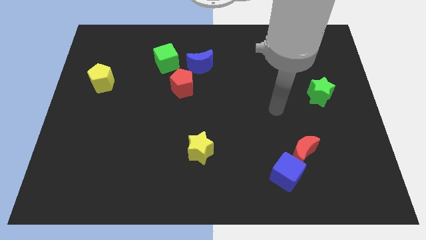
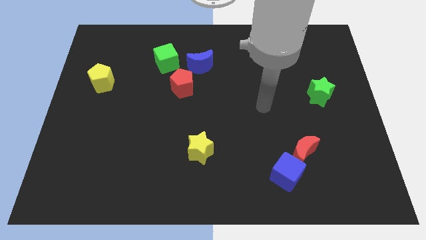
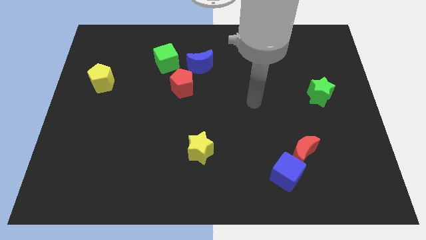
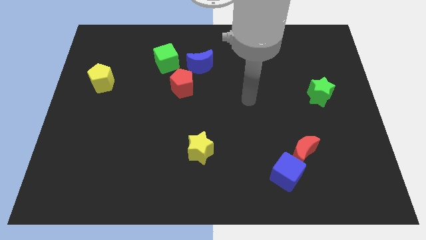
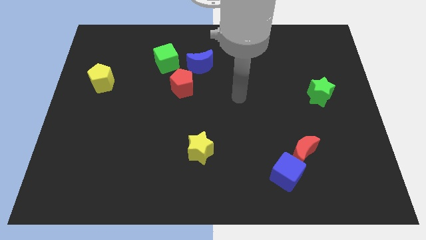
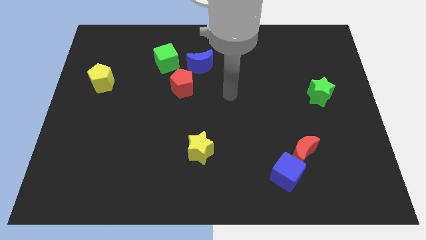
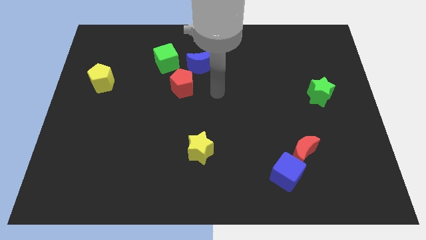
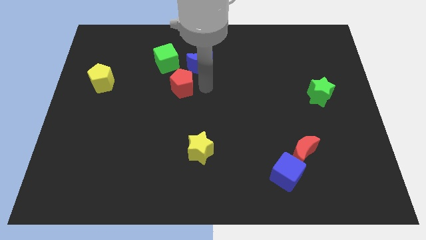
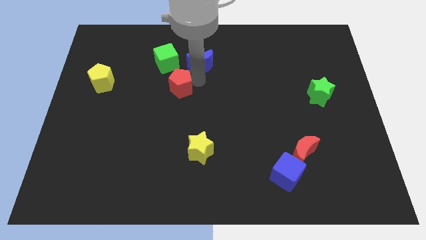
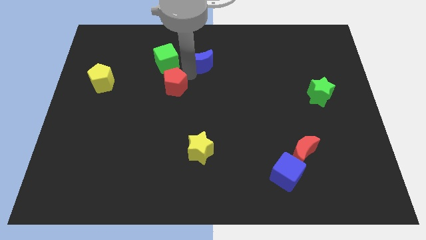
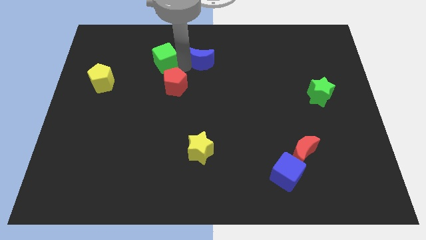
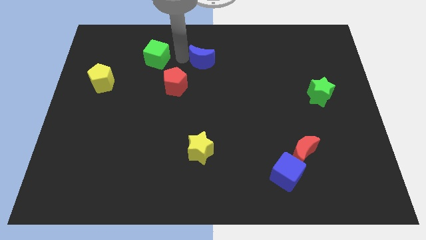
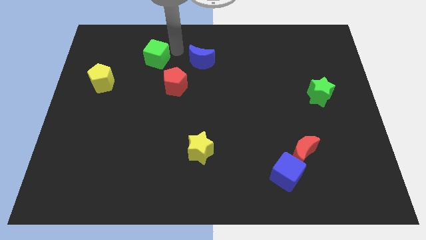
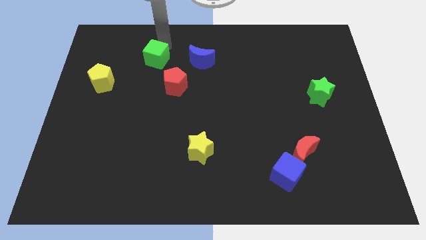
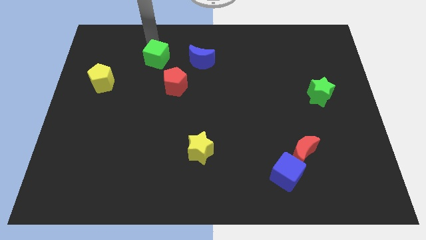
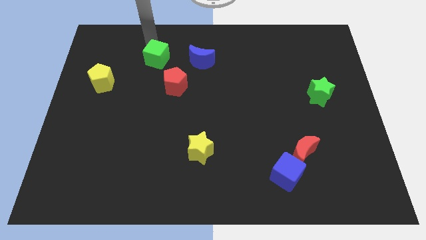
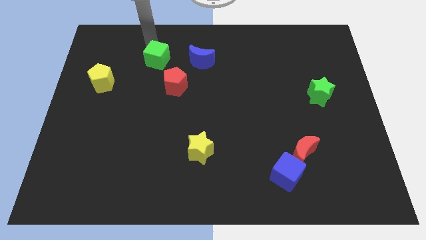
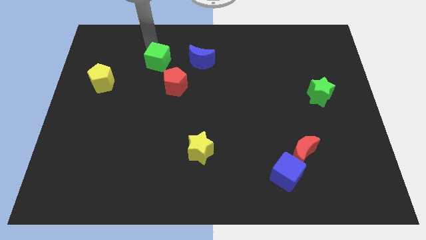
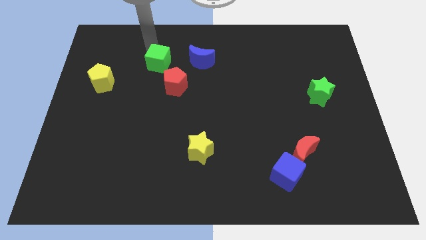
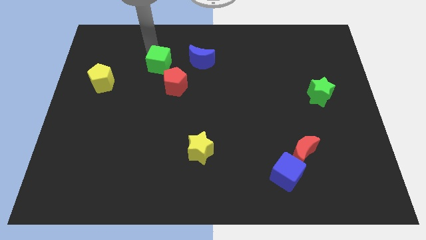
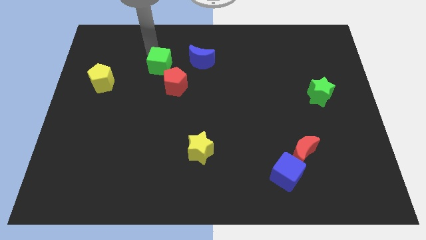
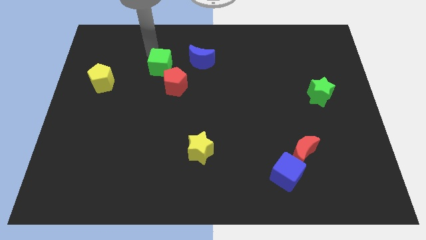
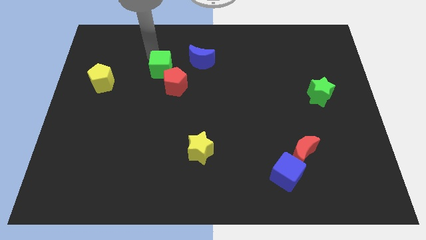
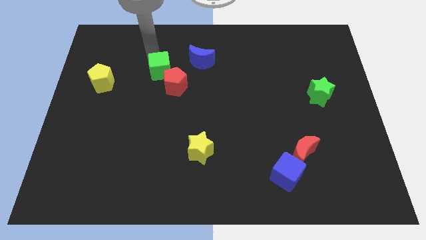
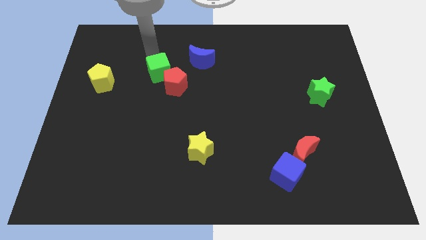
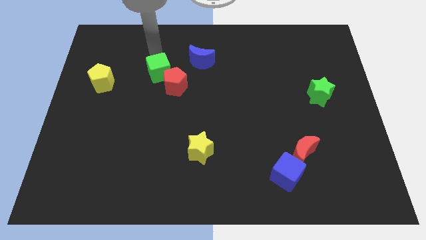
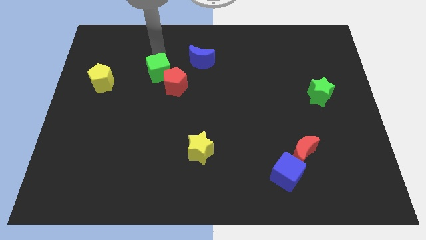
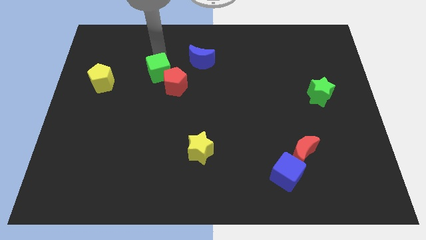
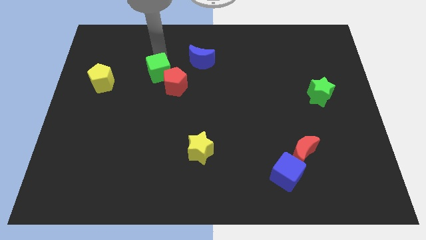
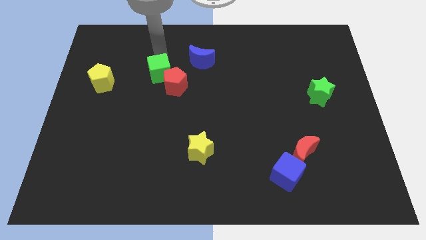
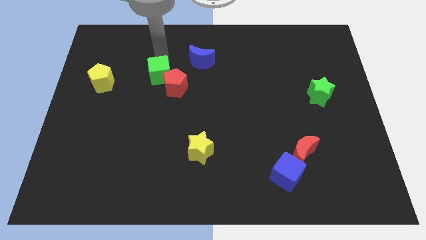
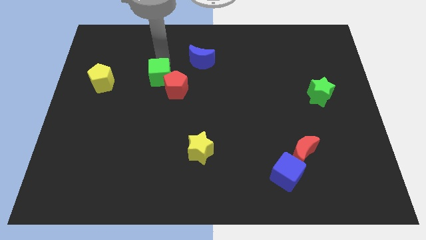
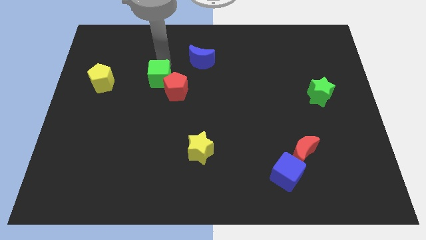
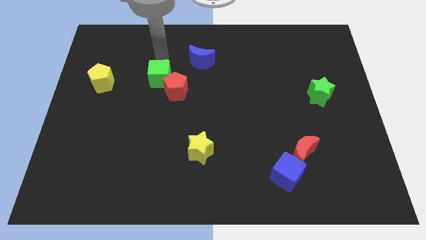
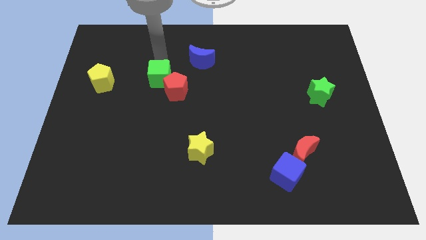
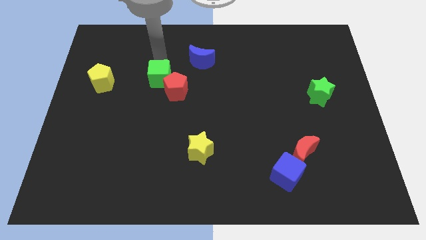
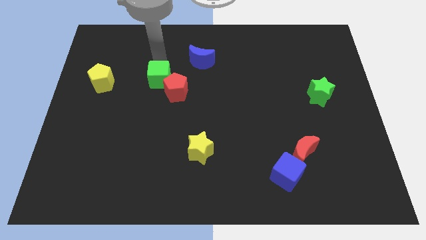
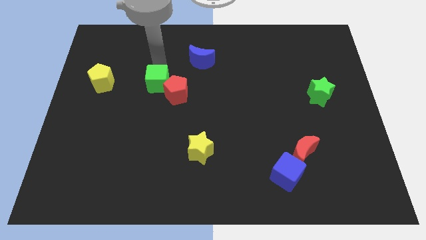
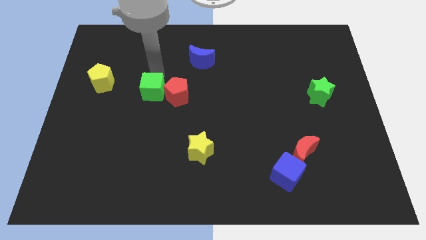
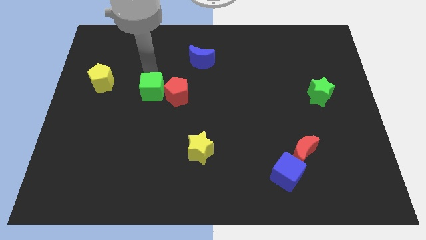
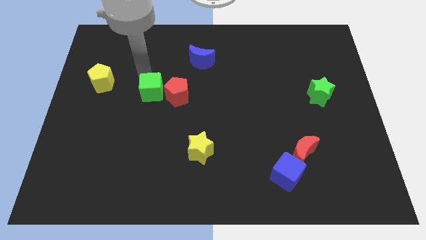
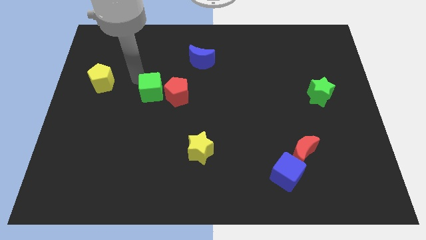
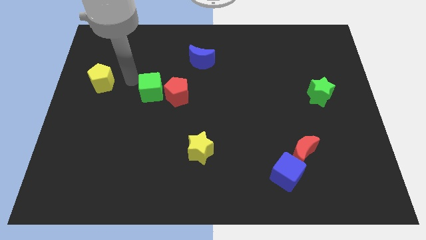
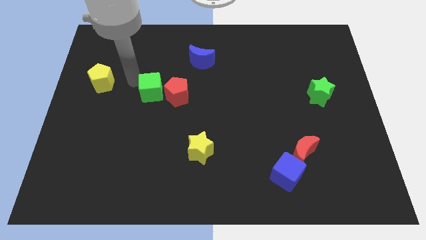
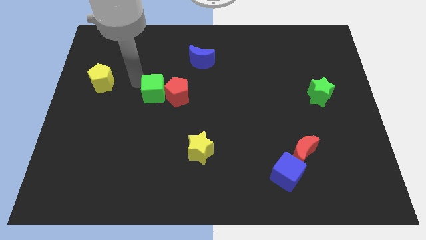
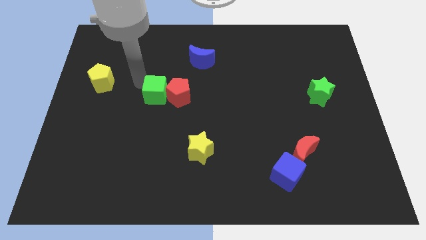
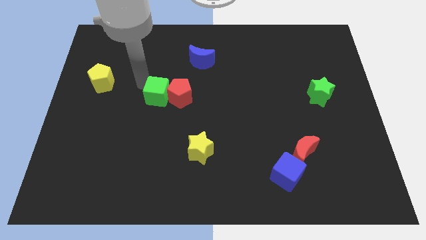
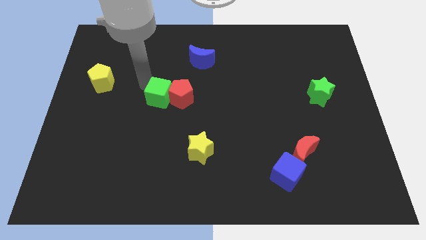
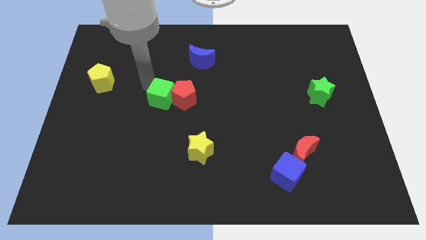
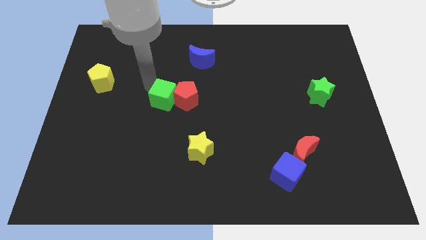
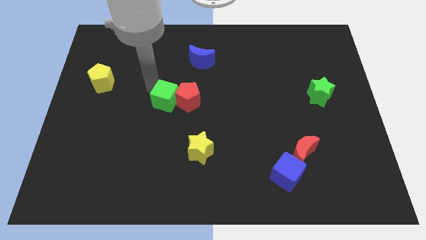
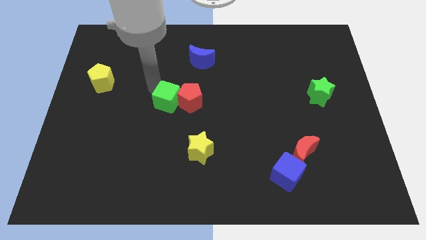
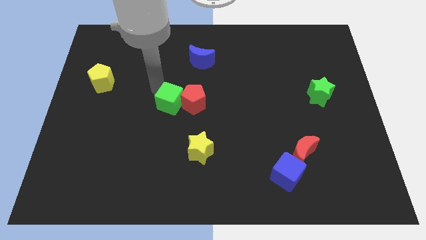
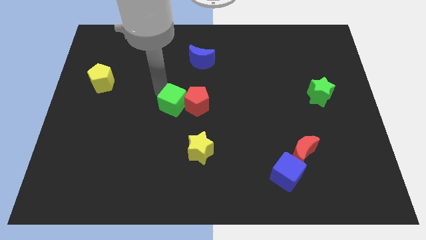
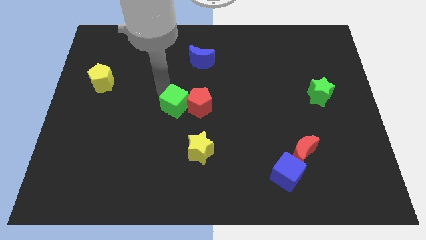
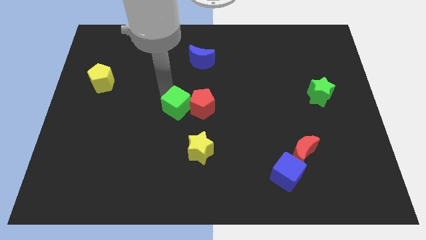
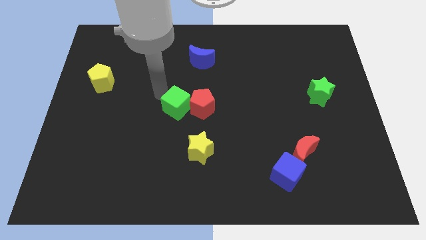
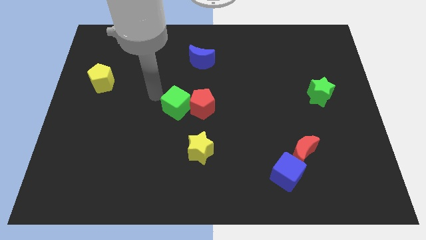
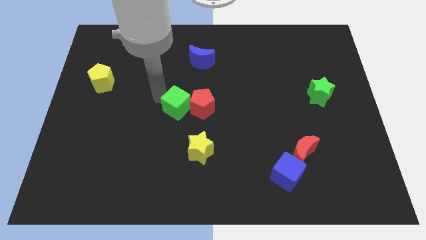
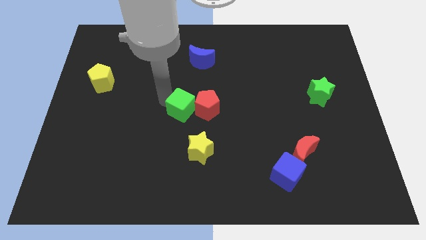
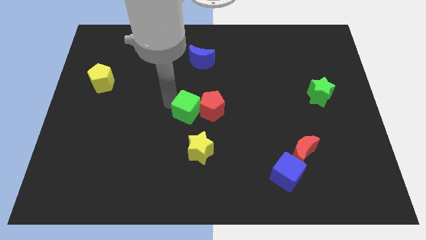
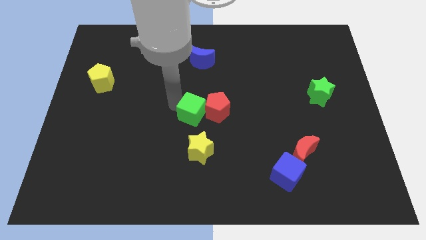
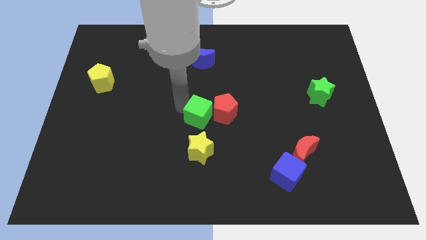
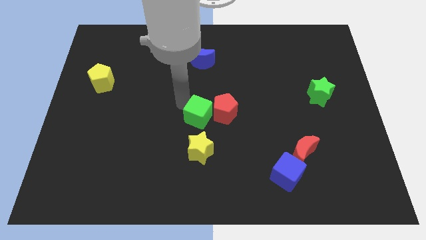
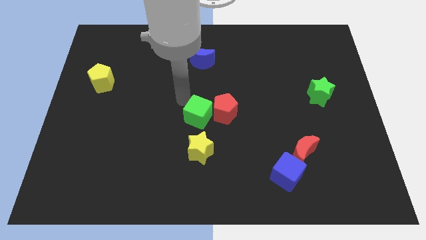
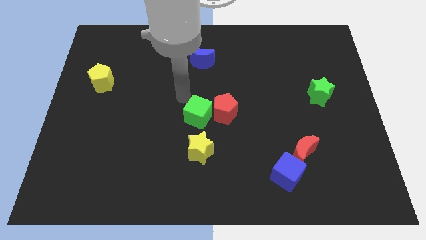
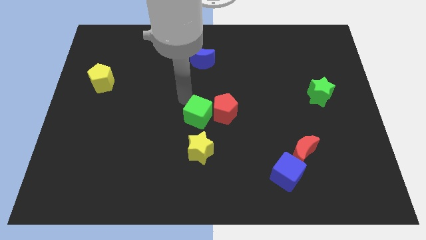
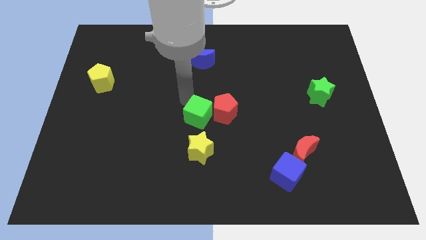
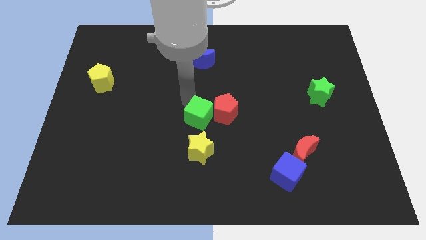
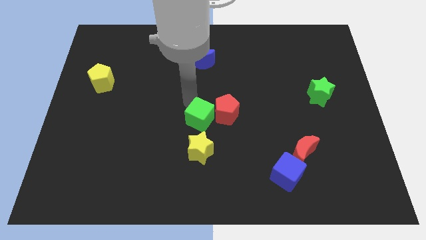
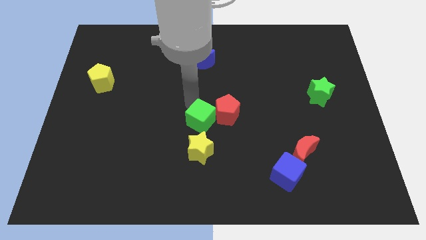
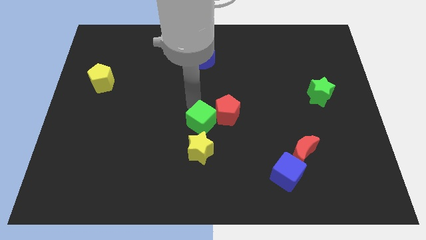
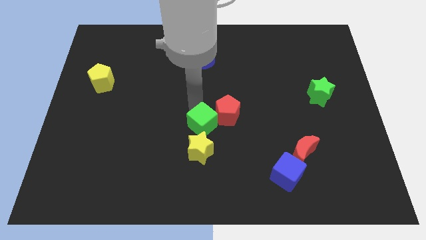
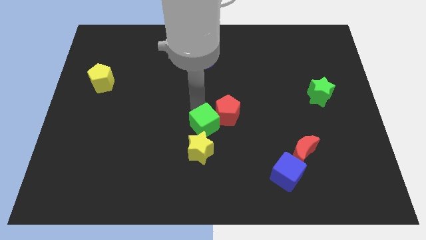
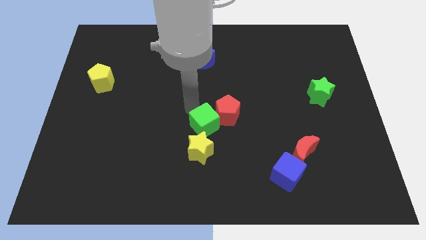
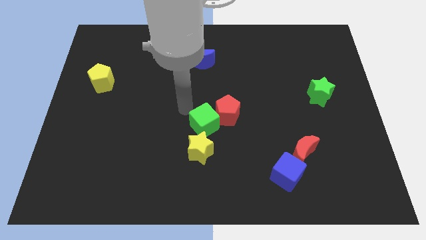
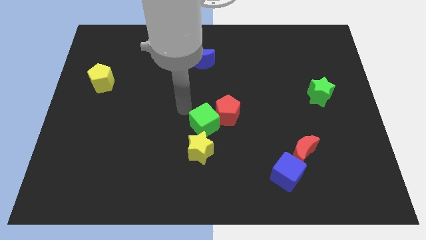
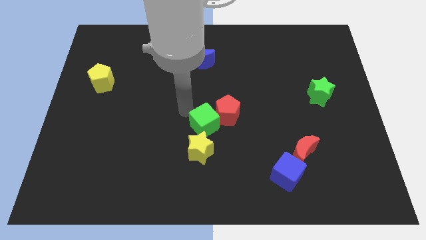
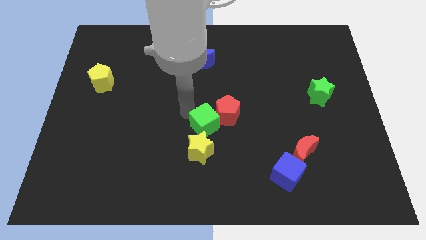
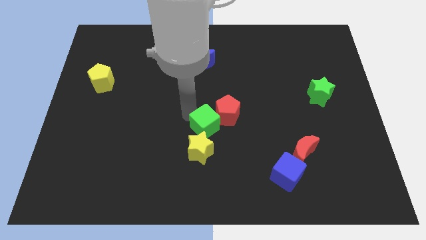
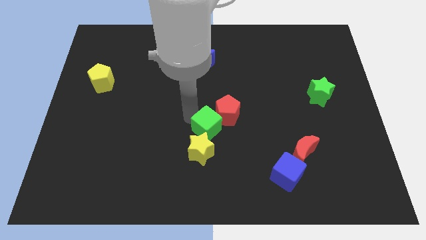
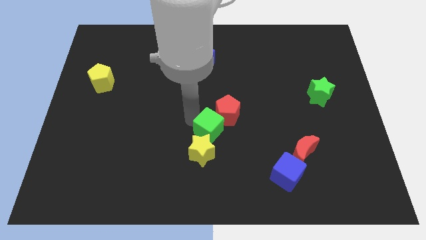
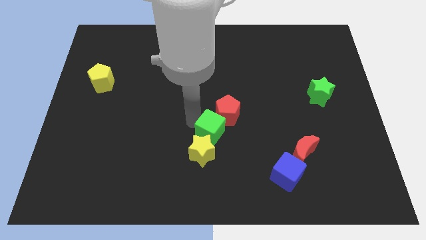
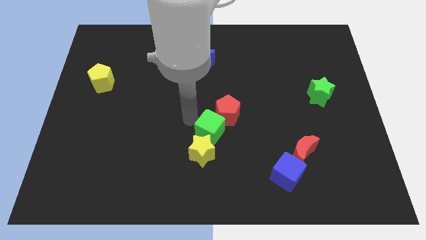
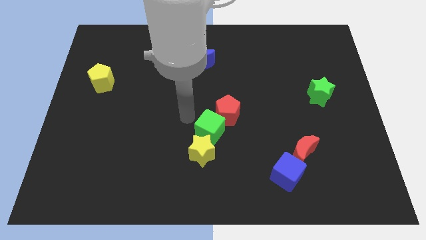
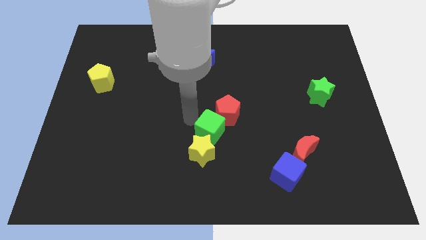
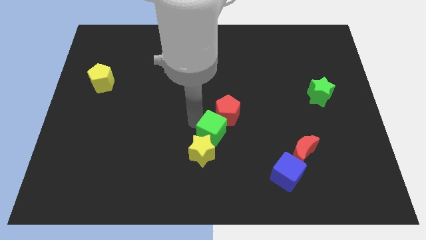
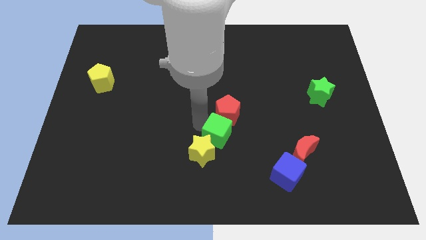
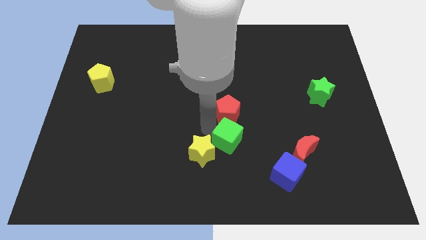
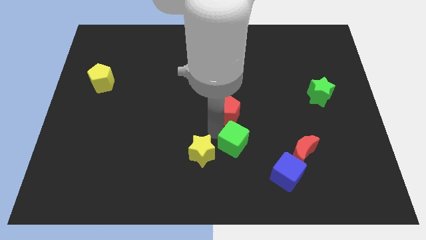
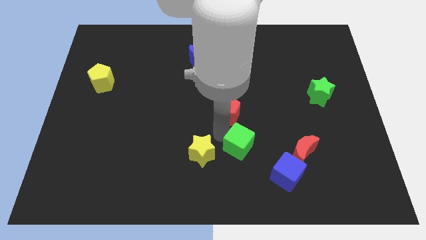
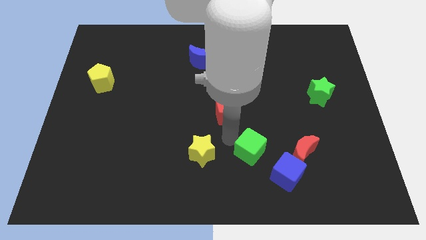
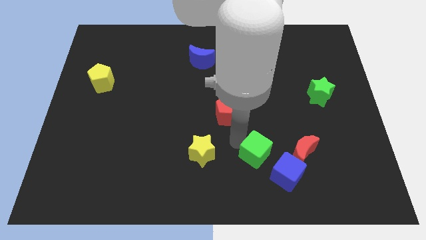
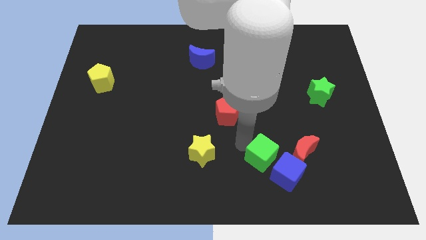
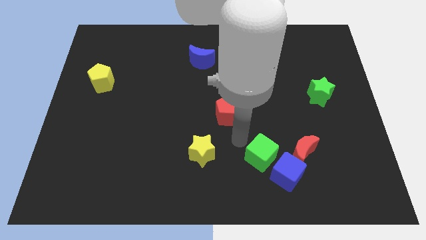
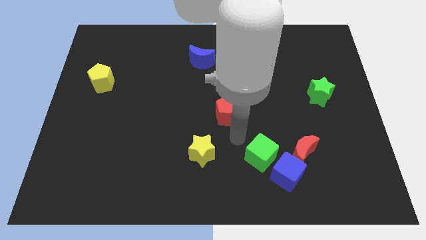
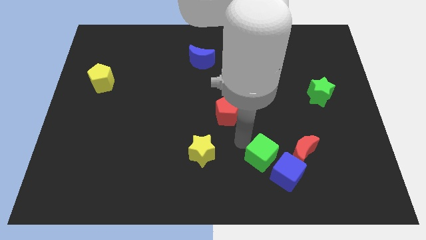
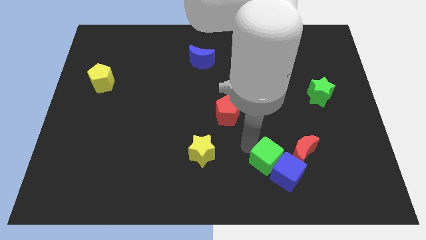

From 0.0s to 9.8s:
move the green cube close to the blue cube
